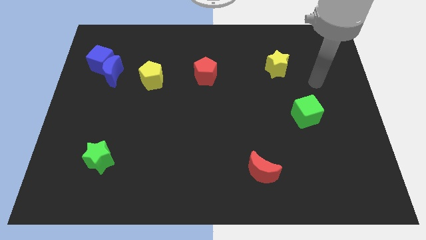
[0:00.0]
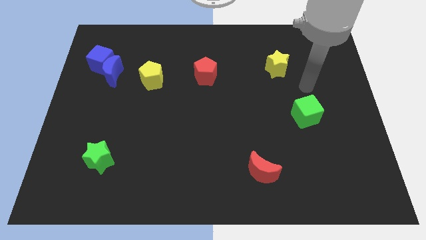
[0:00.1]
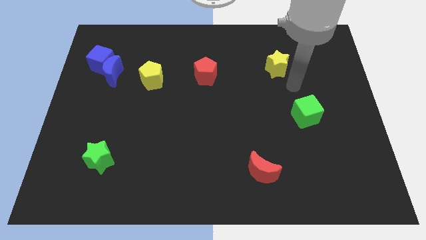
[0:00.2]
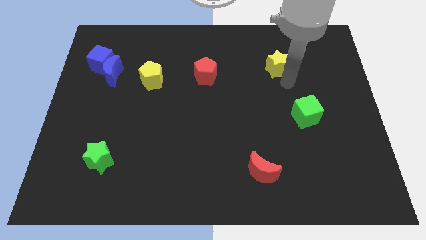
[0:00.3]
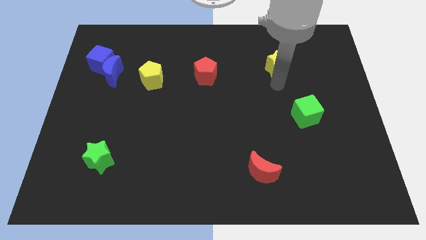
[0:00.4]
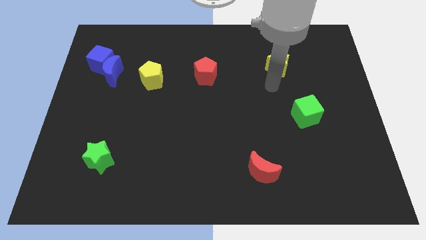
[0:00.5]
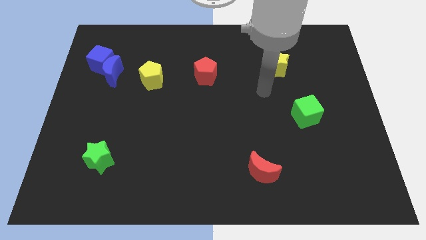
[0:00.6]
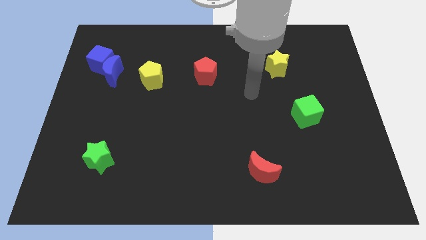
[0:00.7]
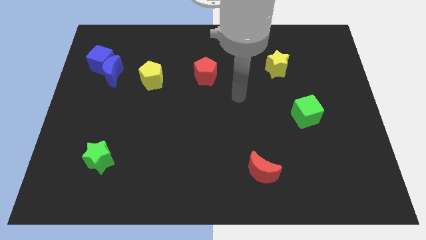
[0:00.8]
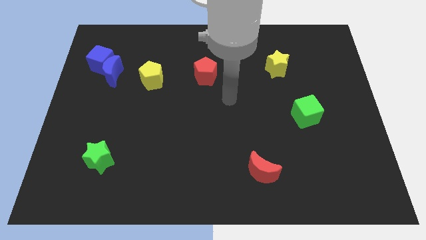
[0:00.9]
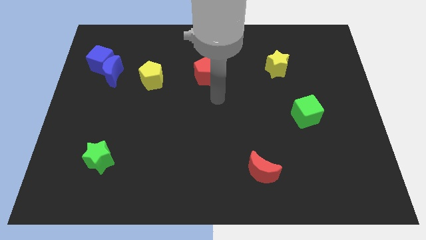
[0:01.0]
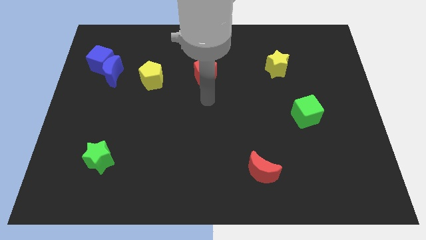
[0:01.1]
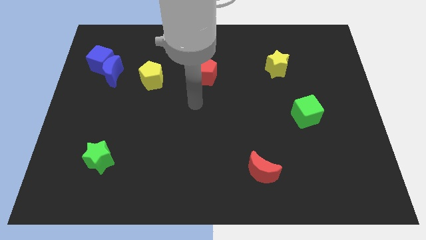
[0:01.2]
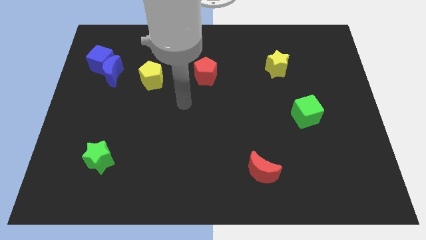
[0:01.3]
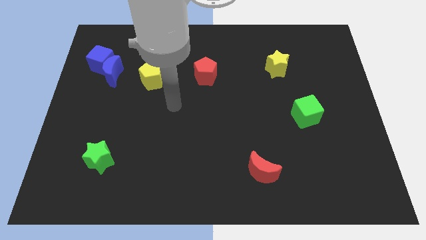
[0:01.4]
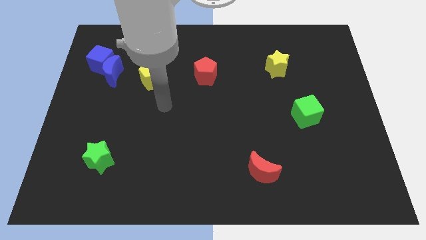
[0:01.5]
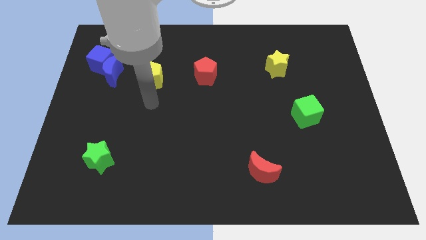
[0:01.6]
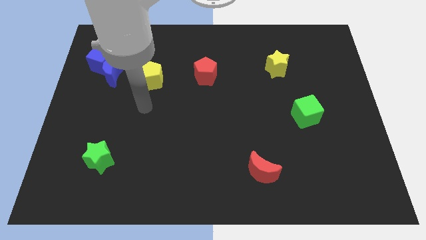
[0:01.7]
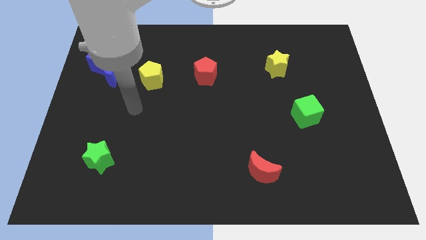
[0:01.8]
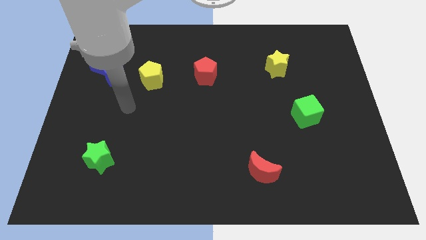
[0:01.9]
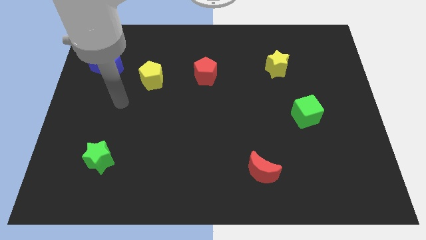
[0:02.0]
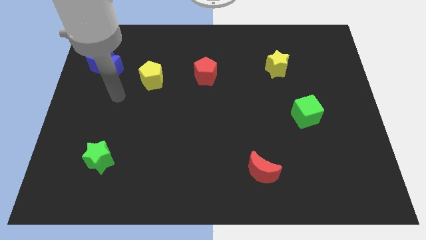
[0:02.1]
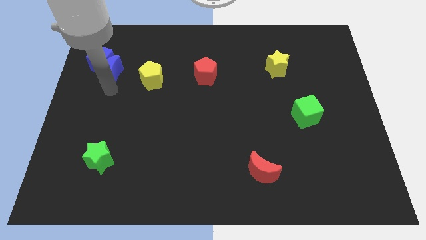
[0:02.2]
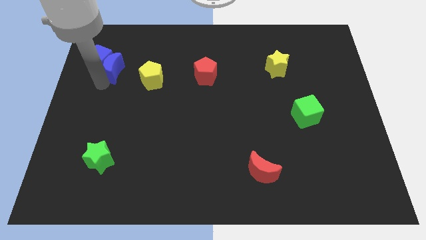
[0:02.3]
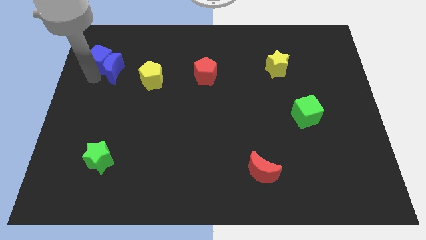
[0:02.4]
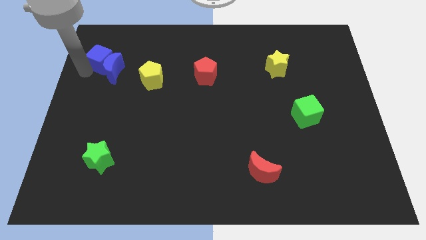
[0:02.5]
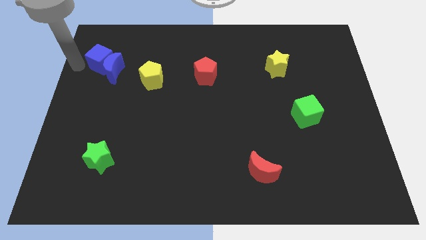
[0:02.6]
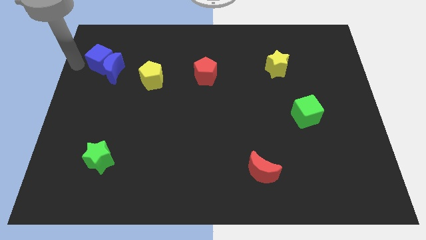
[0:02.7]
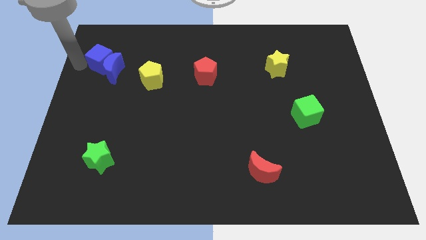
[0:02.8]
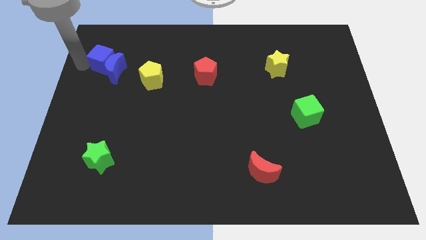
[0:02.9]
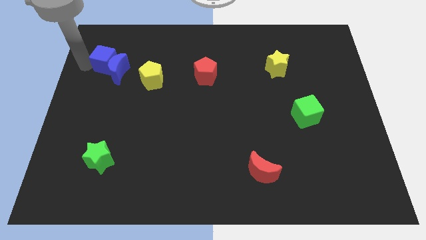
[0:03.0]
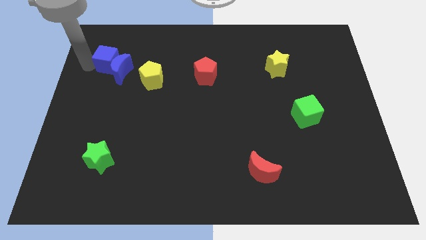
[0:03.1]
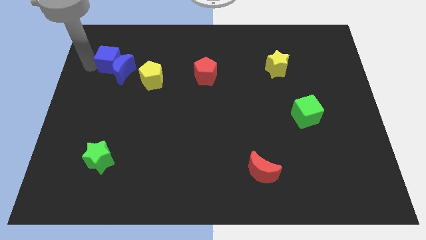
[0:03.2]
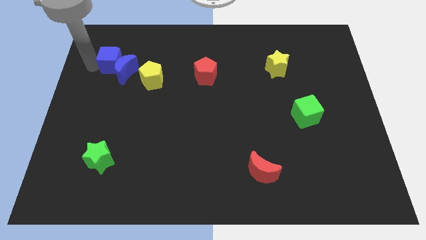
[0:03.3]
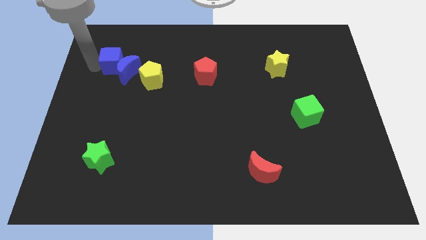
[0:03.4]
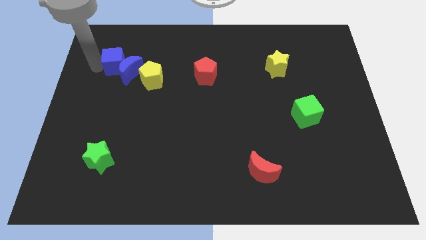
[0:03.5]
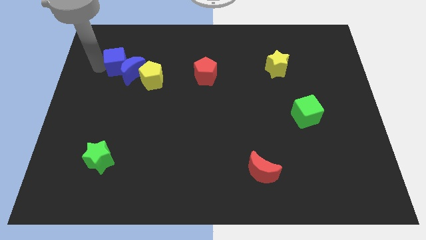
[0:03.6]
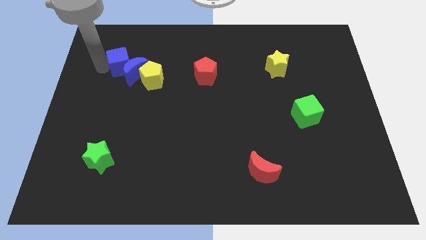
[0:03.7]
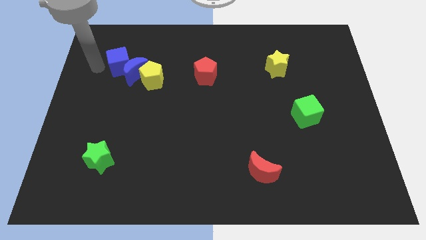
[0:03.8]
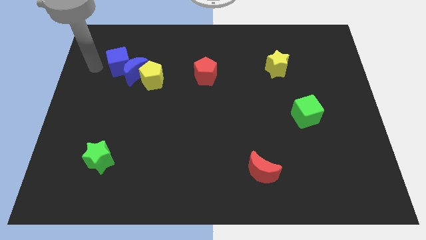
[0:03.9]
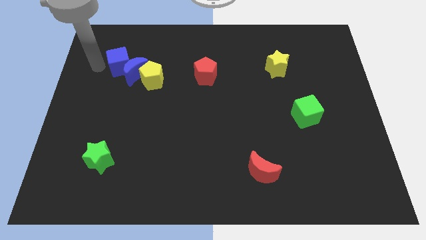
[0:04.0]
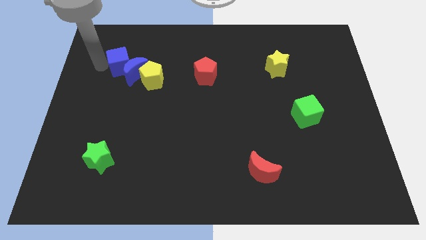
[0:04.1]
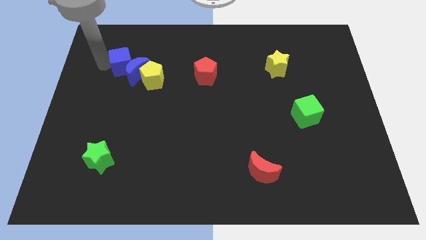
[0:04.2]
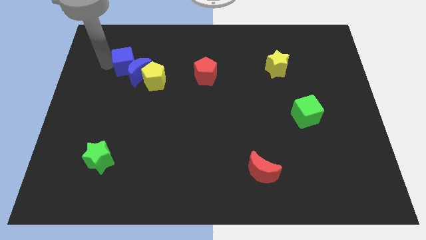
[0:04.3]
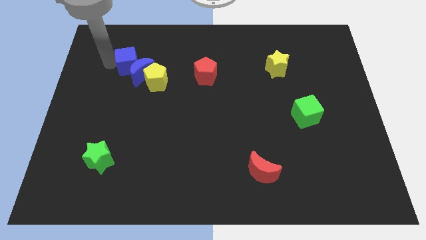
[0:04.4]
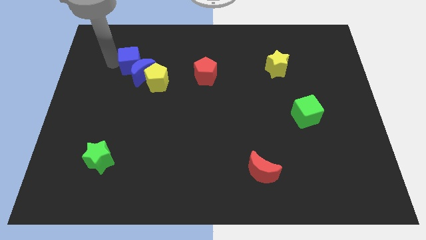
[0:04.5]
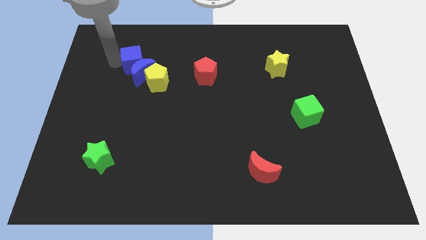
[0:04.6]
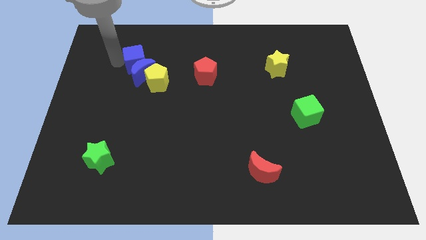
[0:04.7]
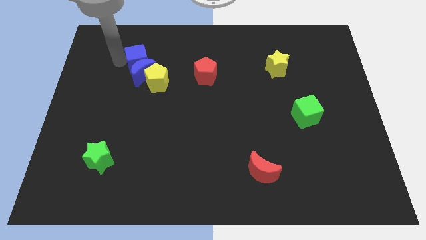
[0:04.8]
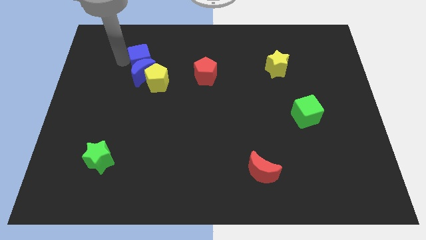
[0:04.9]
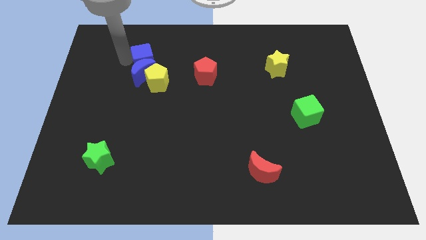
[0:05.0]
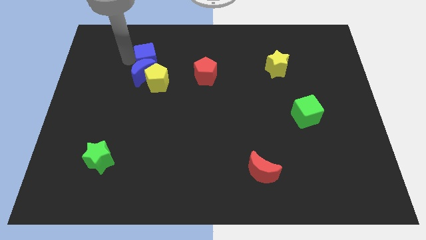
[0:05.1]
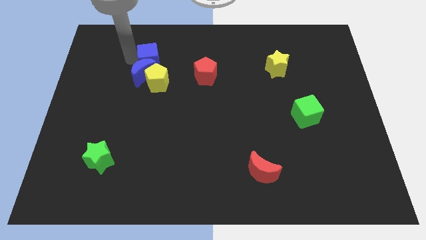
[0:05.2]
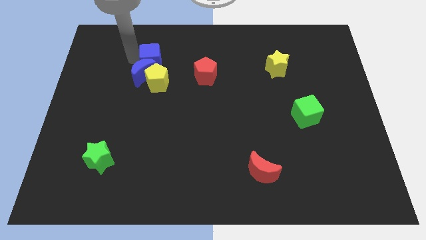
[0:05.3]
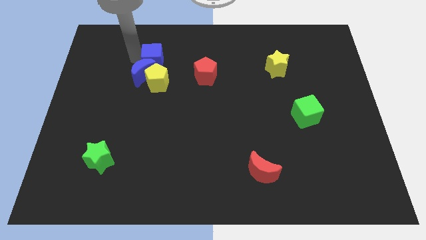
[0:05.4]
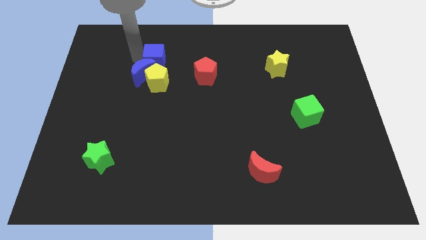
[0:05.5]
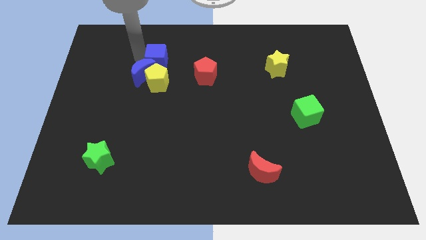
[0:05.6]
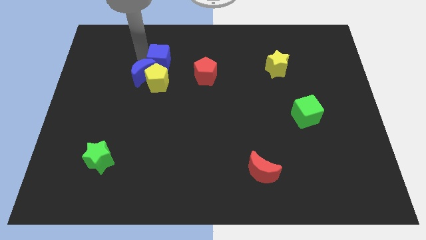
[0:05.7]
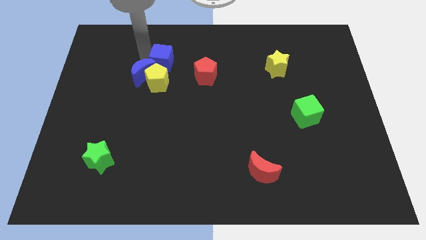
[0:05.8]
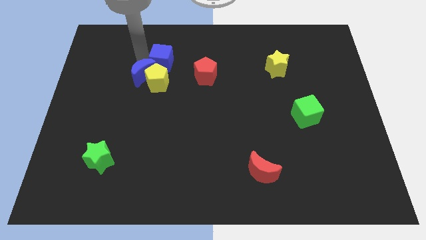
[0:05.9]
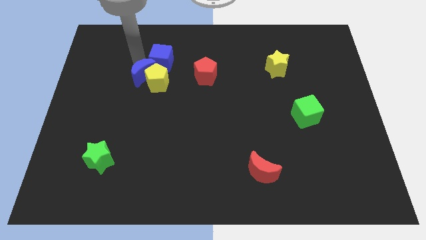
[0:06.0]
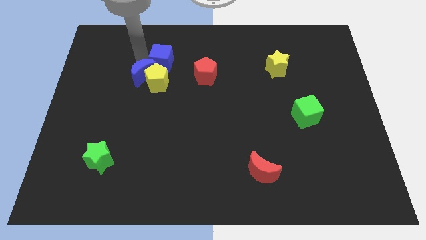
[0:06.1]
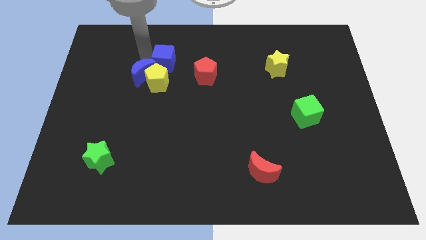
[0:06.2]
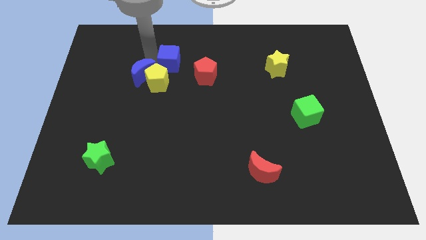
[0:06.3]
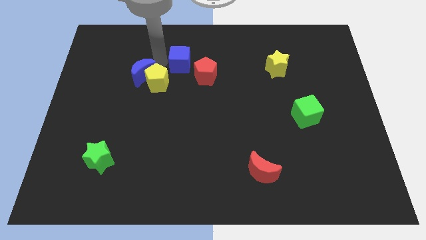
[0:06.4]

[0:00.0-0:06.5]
push the blue cube right

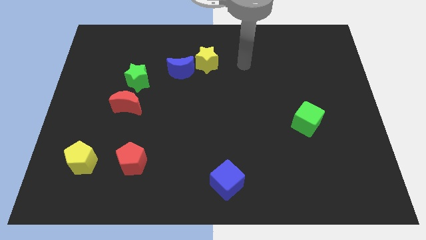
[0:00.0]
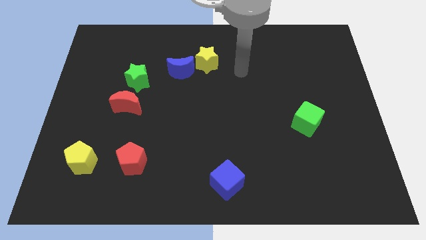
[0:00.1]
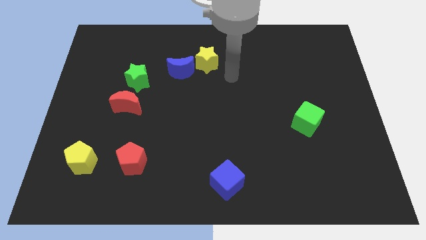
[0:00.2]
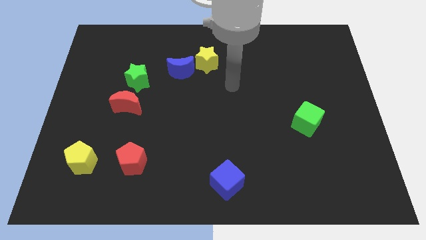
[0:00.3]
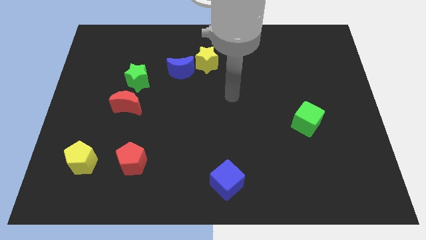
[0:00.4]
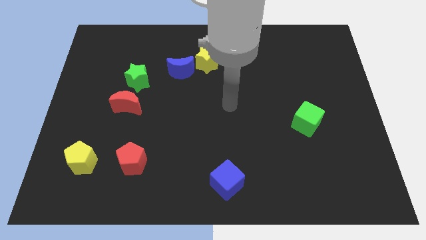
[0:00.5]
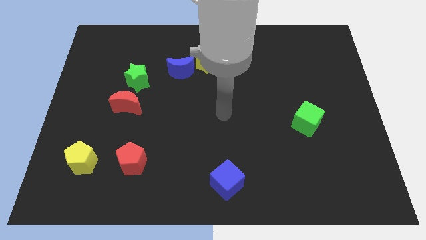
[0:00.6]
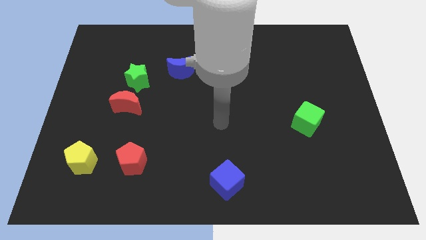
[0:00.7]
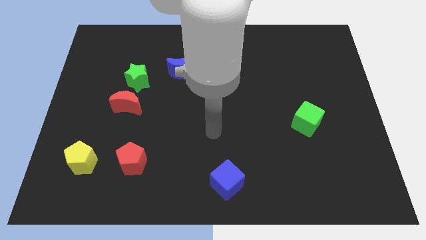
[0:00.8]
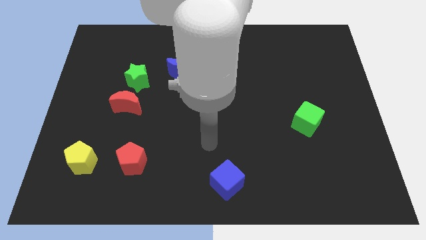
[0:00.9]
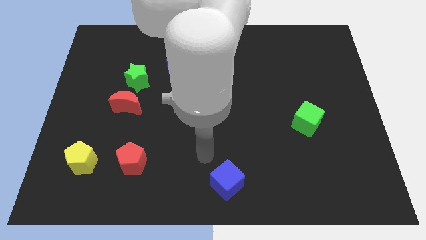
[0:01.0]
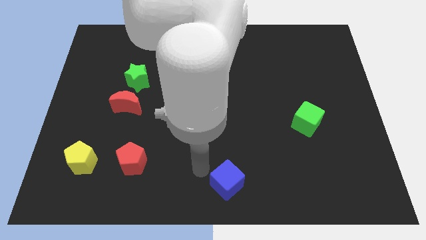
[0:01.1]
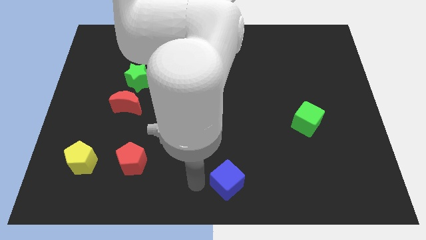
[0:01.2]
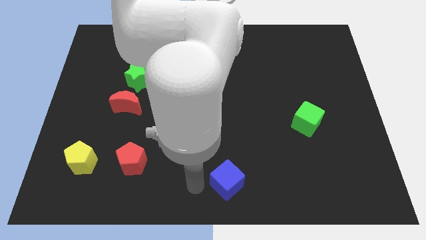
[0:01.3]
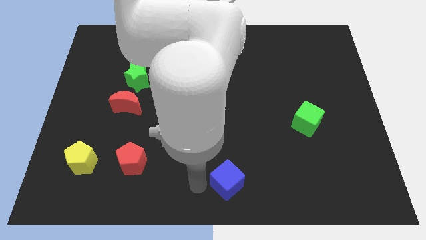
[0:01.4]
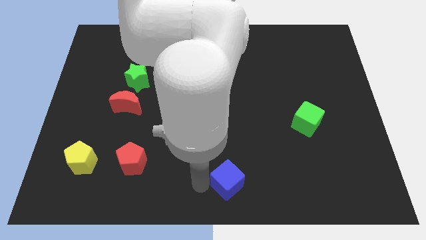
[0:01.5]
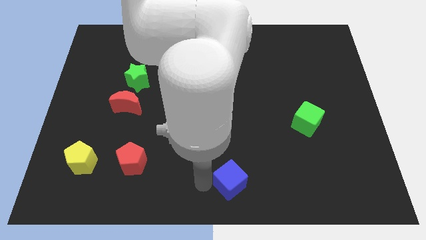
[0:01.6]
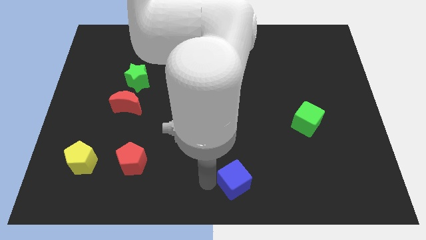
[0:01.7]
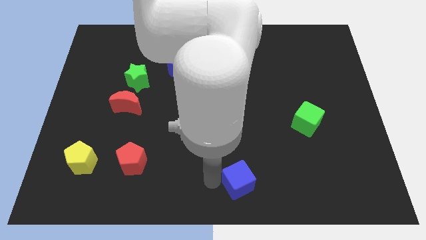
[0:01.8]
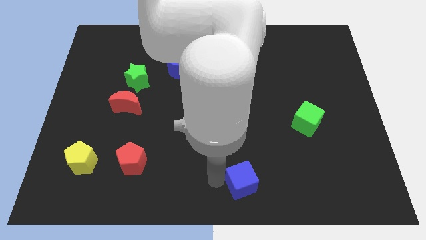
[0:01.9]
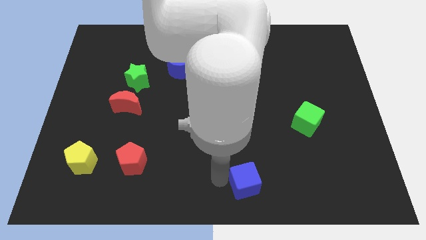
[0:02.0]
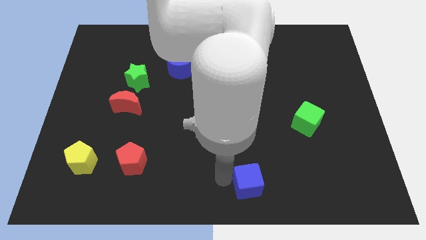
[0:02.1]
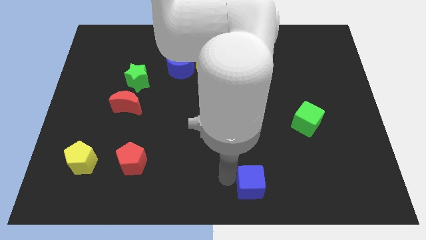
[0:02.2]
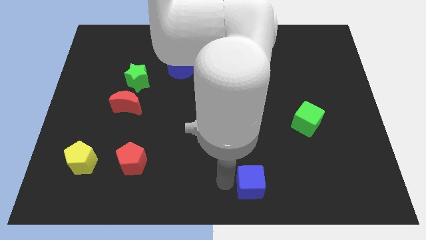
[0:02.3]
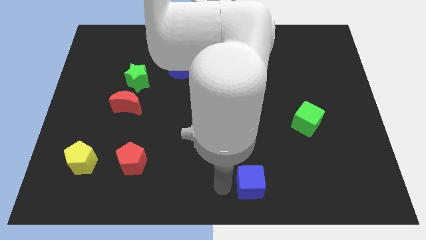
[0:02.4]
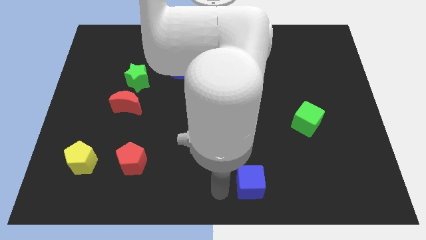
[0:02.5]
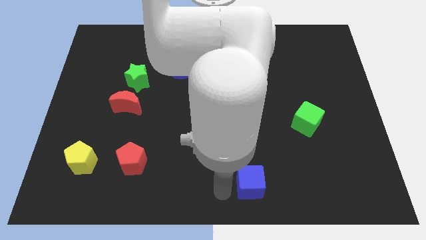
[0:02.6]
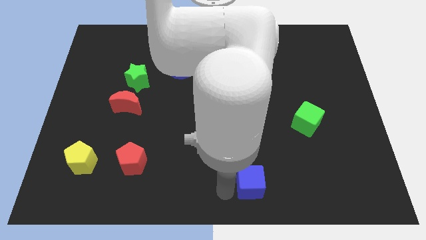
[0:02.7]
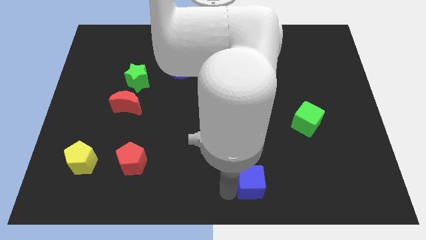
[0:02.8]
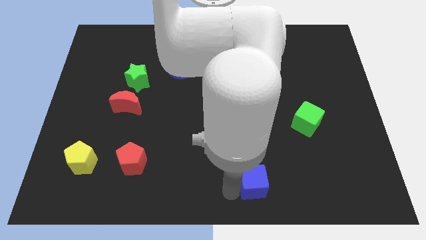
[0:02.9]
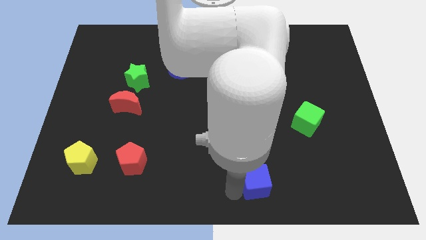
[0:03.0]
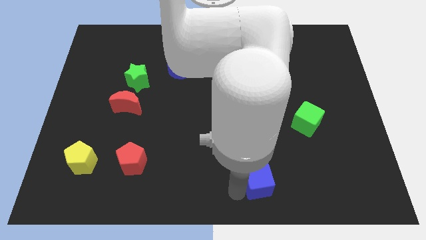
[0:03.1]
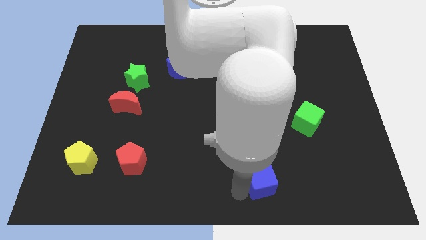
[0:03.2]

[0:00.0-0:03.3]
move the blue cube slightly to the right
